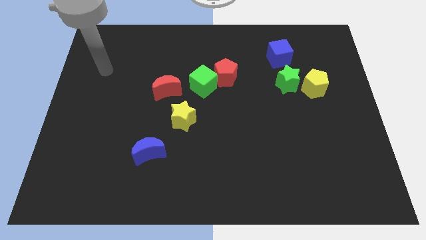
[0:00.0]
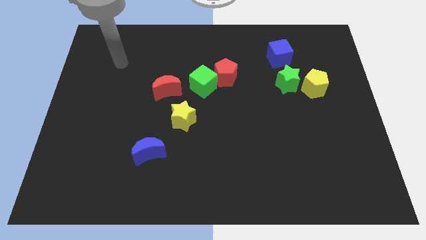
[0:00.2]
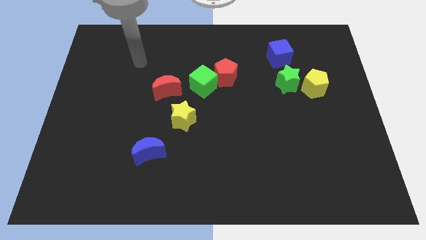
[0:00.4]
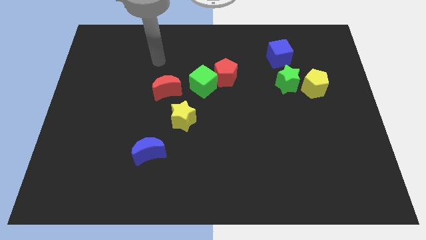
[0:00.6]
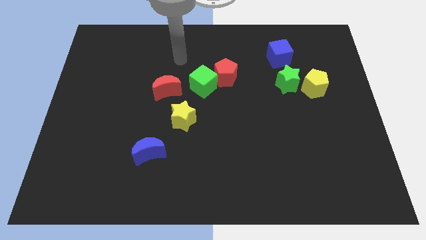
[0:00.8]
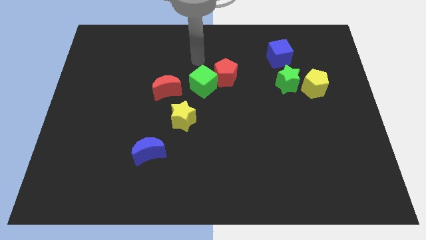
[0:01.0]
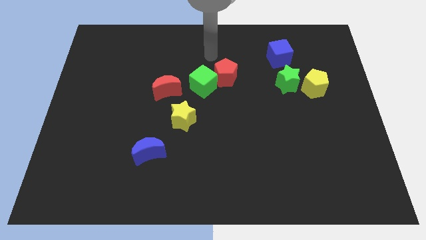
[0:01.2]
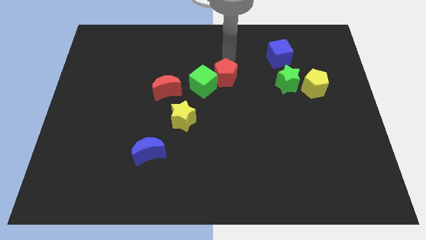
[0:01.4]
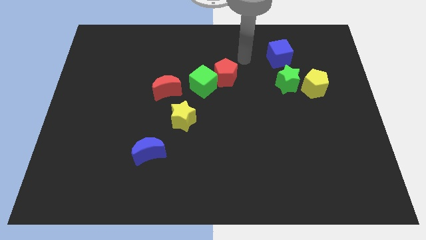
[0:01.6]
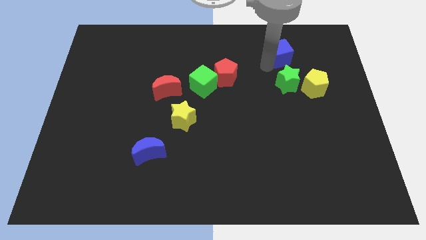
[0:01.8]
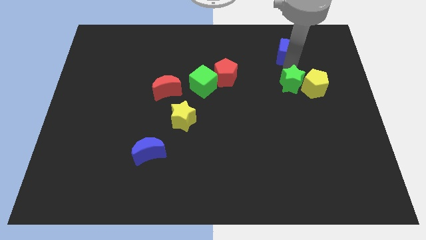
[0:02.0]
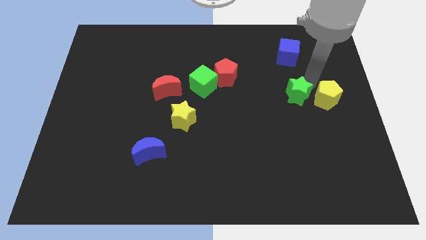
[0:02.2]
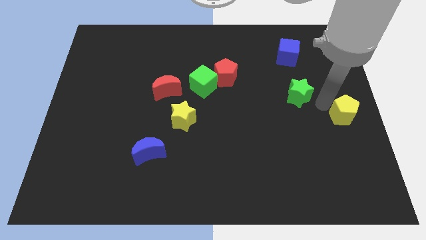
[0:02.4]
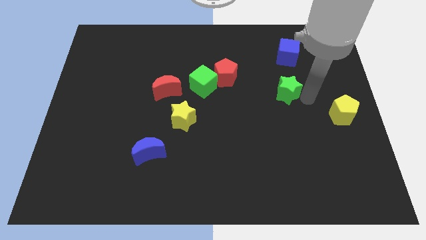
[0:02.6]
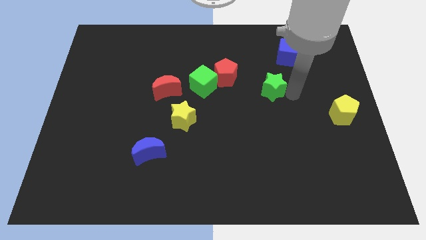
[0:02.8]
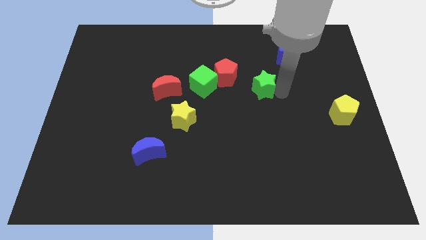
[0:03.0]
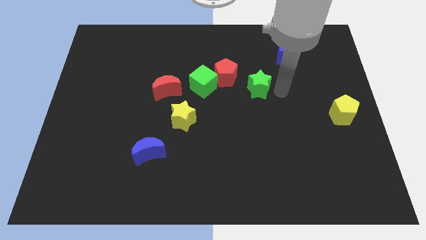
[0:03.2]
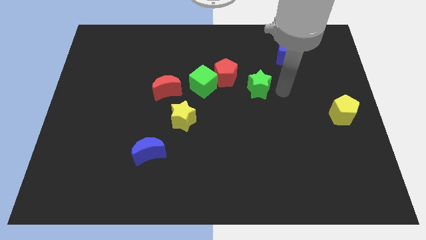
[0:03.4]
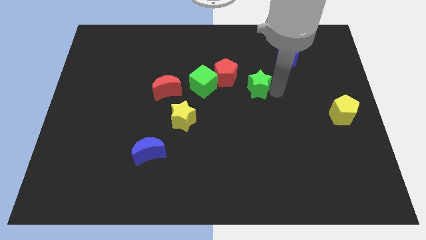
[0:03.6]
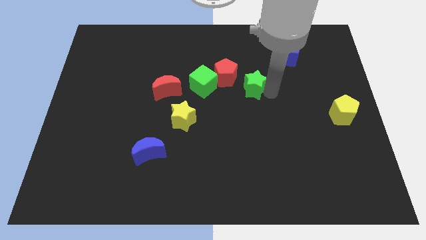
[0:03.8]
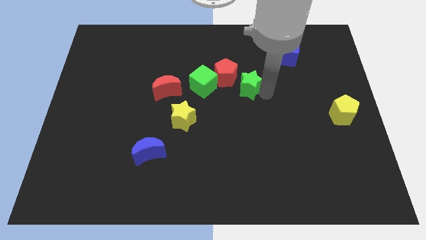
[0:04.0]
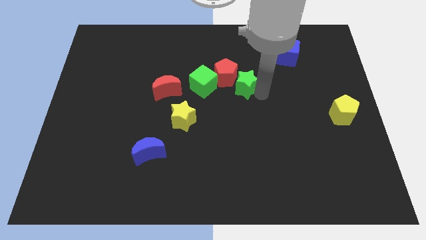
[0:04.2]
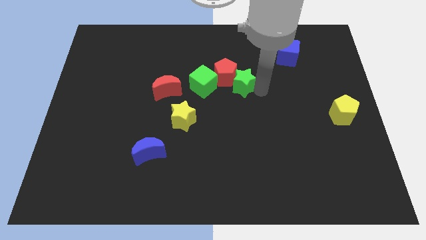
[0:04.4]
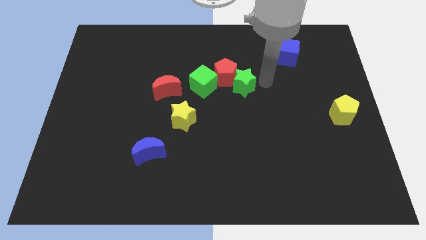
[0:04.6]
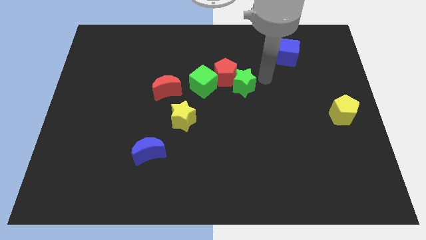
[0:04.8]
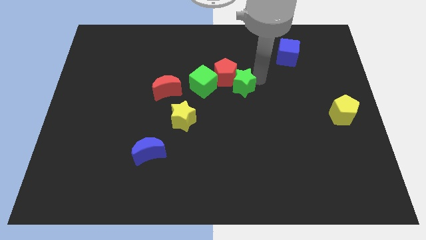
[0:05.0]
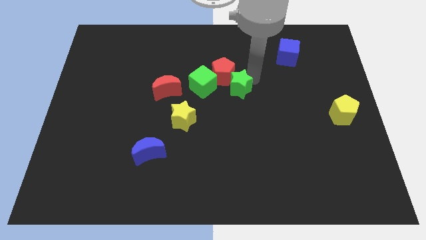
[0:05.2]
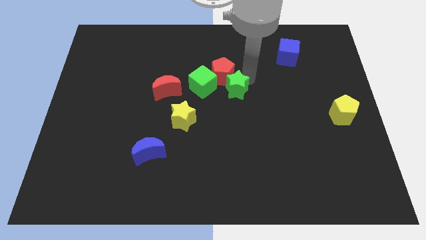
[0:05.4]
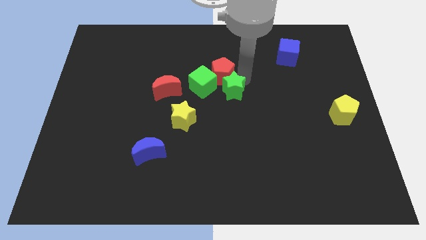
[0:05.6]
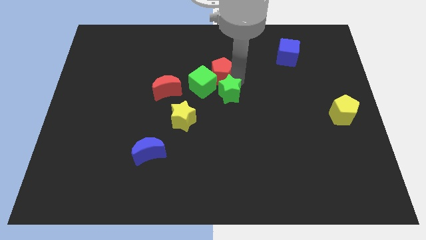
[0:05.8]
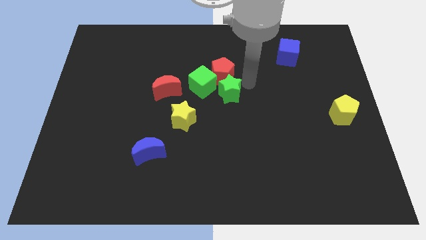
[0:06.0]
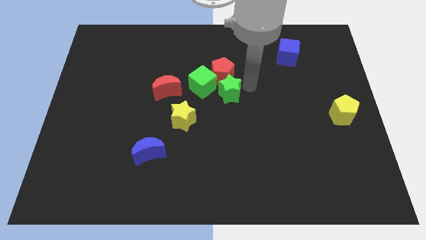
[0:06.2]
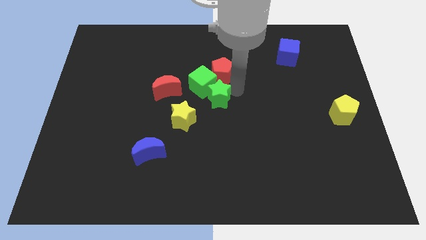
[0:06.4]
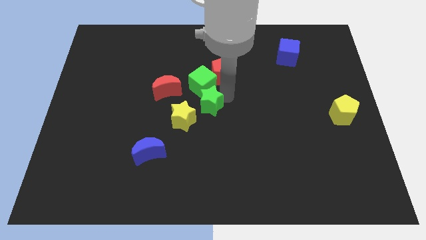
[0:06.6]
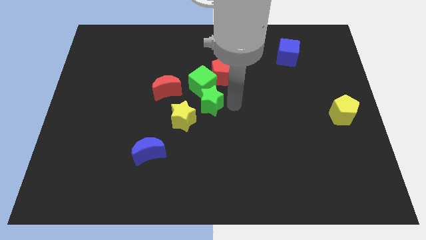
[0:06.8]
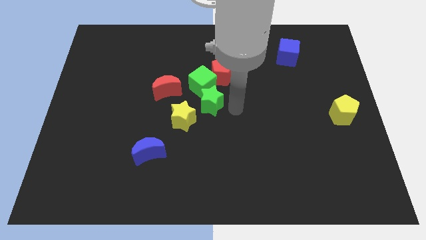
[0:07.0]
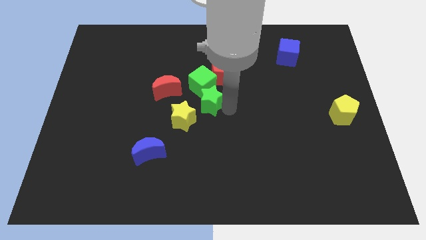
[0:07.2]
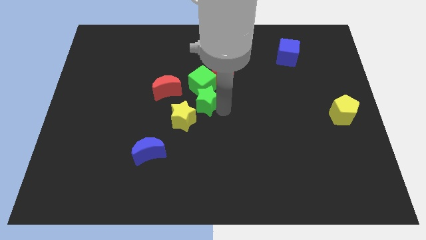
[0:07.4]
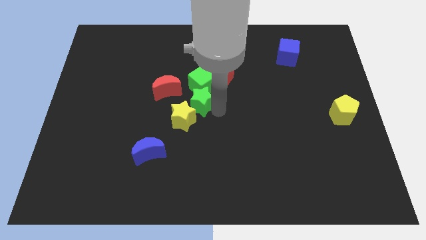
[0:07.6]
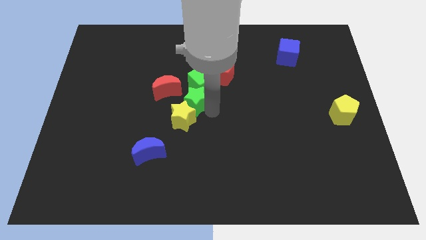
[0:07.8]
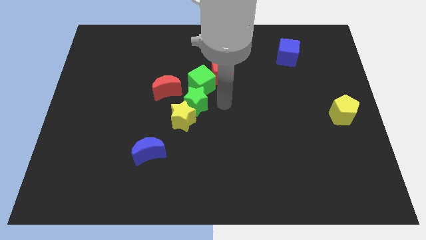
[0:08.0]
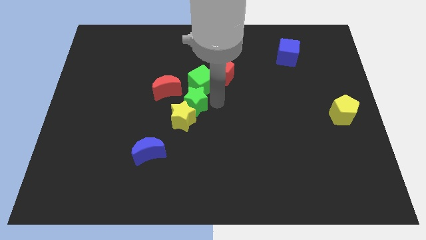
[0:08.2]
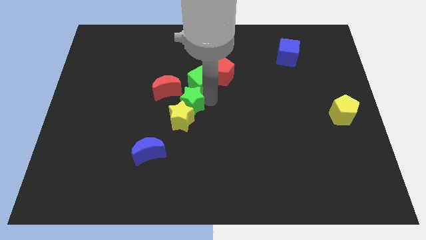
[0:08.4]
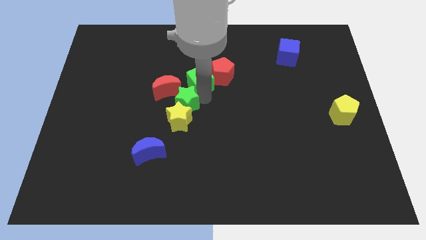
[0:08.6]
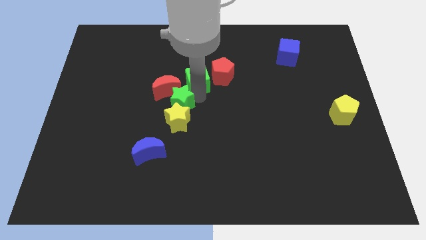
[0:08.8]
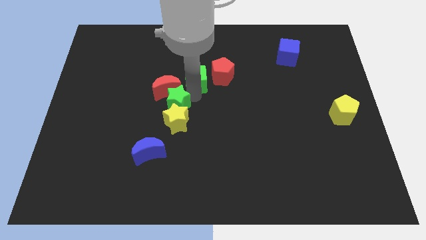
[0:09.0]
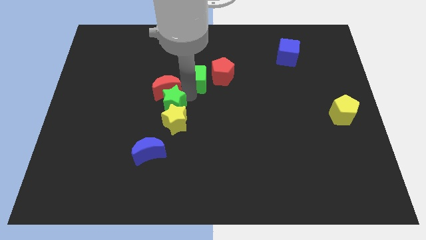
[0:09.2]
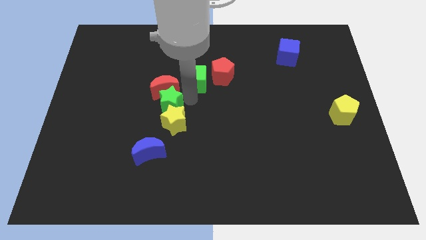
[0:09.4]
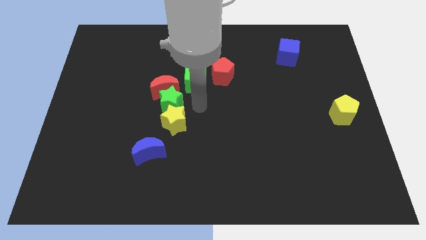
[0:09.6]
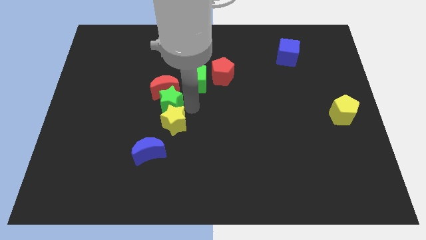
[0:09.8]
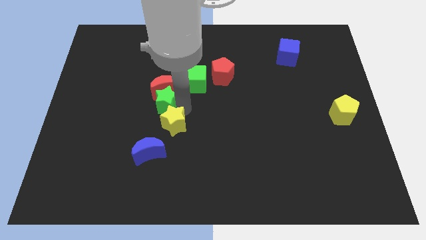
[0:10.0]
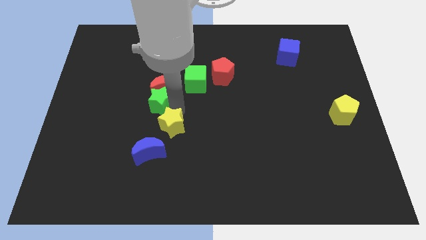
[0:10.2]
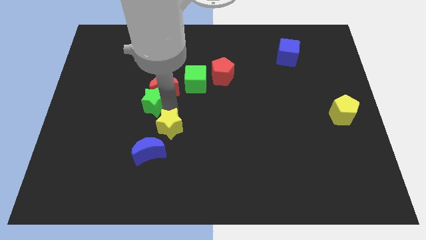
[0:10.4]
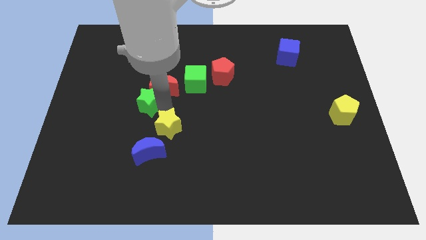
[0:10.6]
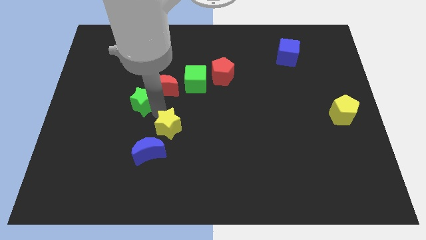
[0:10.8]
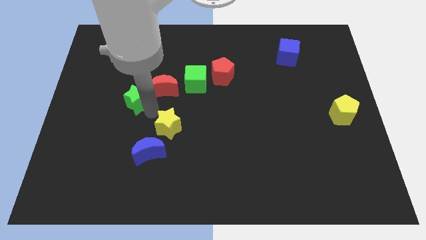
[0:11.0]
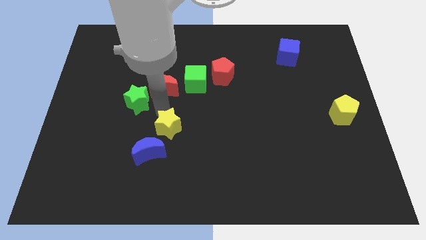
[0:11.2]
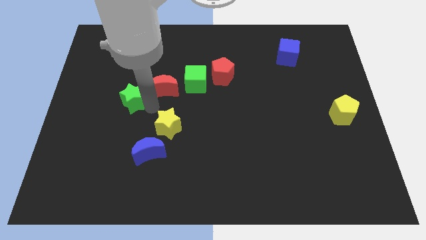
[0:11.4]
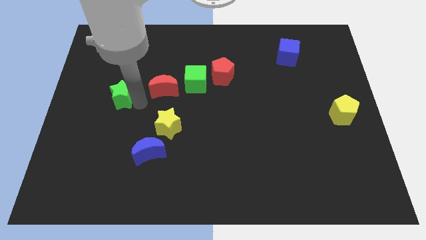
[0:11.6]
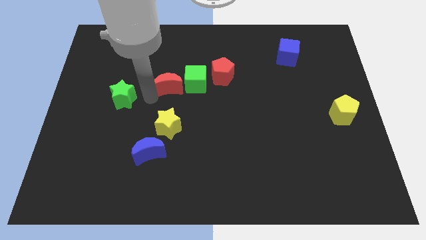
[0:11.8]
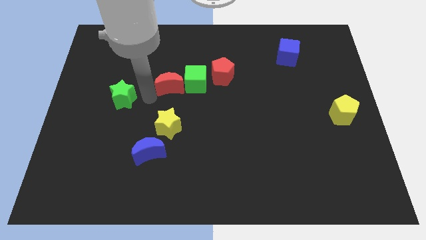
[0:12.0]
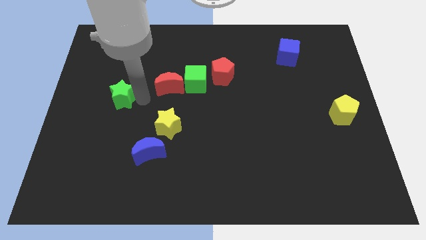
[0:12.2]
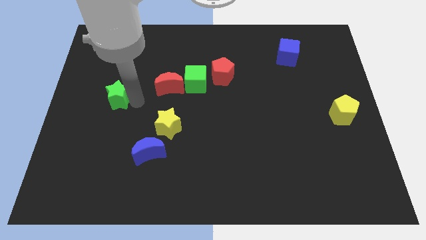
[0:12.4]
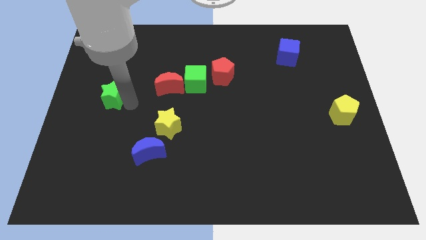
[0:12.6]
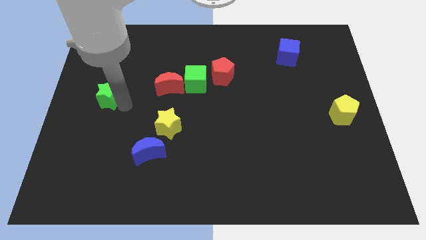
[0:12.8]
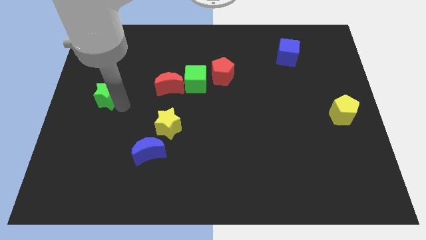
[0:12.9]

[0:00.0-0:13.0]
slide the green star to the left side of the board

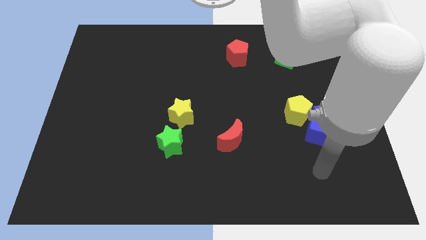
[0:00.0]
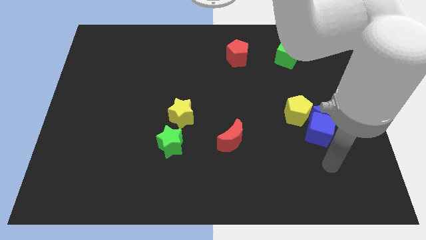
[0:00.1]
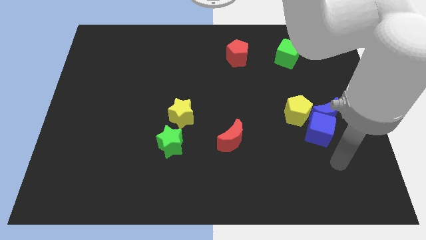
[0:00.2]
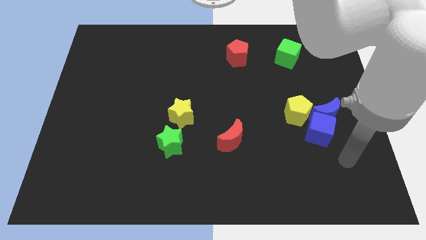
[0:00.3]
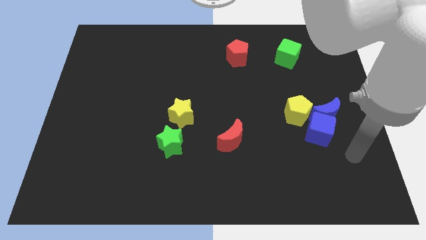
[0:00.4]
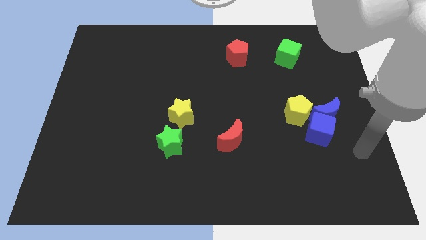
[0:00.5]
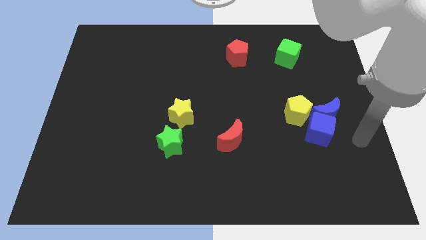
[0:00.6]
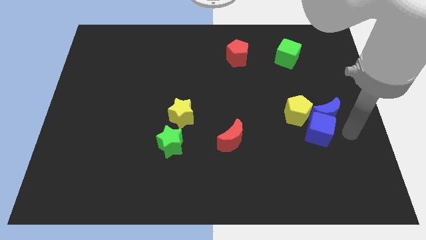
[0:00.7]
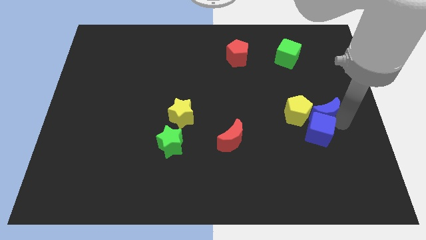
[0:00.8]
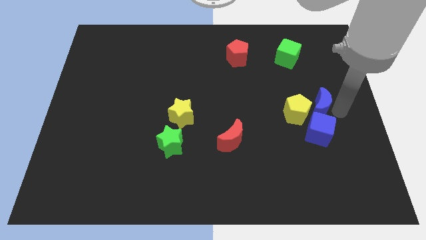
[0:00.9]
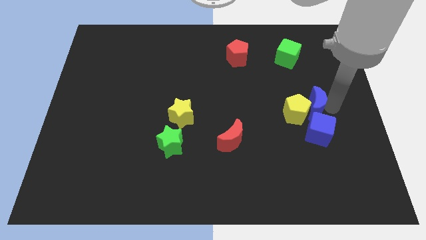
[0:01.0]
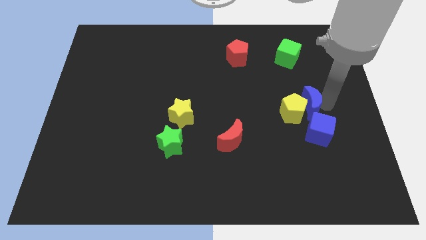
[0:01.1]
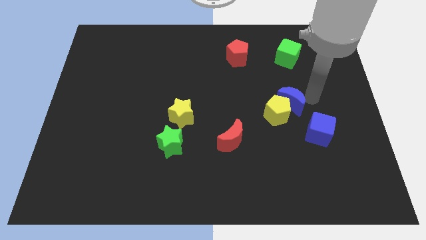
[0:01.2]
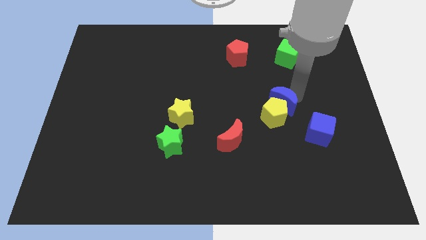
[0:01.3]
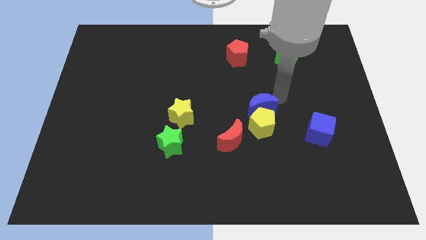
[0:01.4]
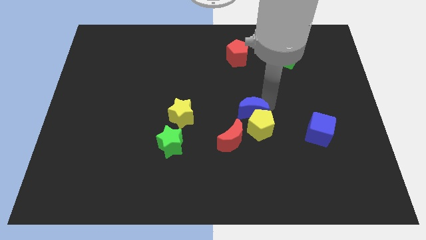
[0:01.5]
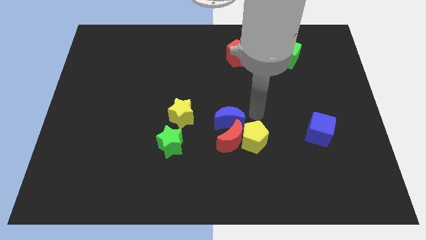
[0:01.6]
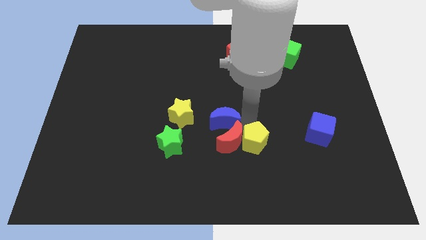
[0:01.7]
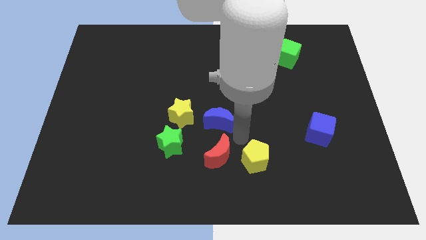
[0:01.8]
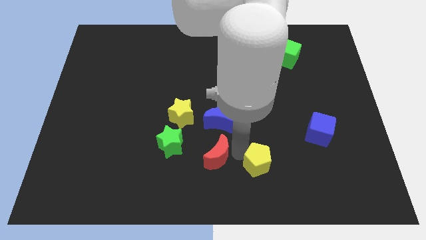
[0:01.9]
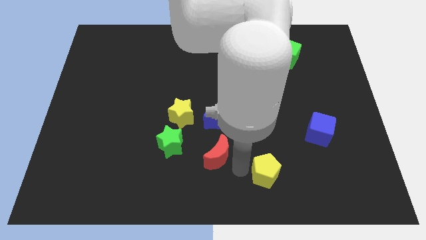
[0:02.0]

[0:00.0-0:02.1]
push the yellow pentagon to the bottom
